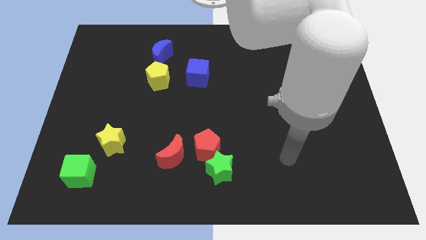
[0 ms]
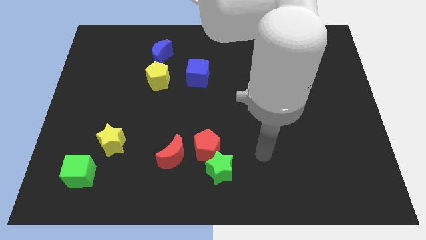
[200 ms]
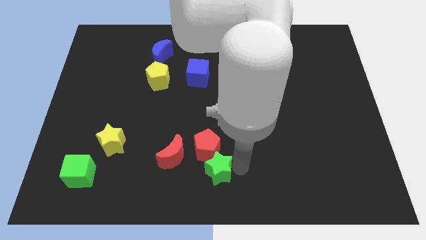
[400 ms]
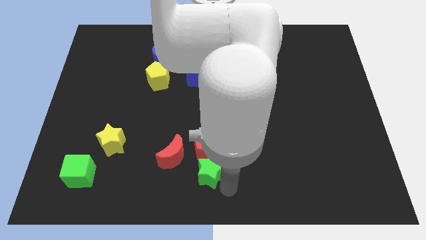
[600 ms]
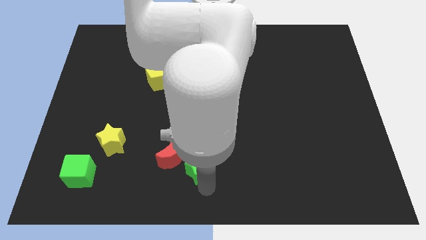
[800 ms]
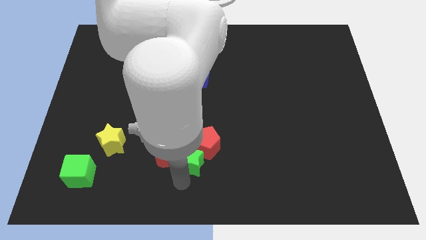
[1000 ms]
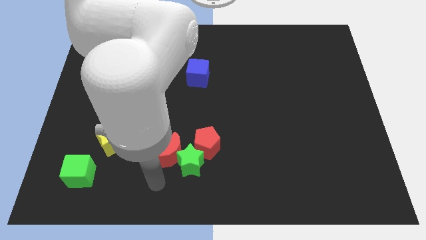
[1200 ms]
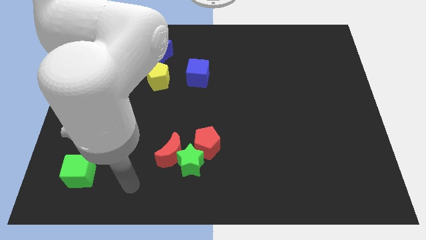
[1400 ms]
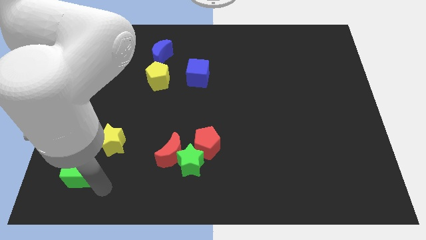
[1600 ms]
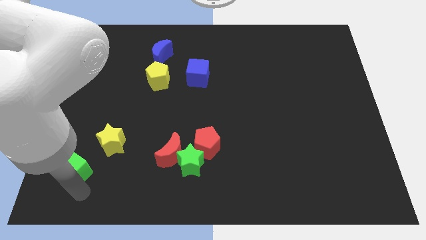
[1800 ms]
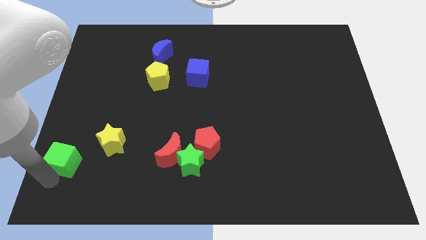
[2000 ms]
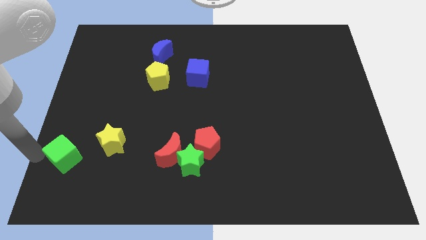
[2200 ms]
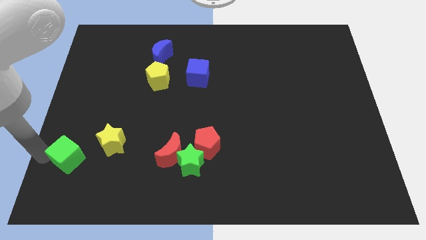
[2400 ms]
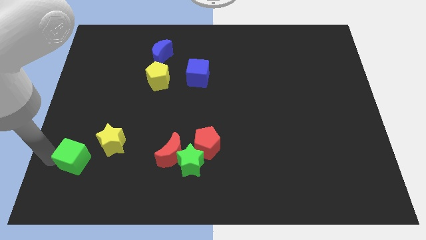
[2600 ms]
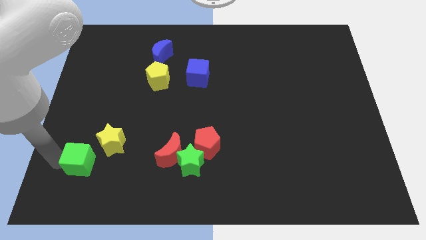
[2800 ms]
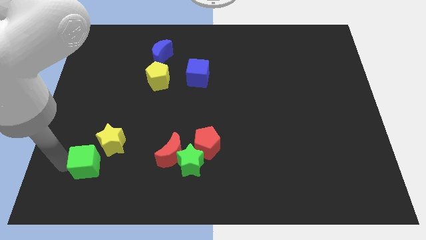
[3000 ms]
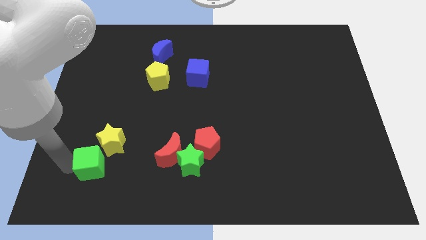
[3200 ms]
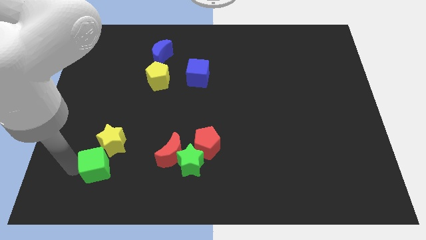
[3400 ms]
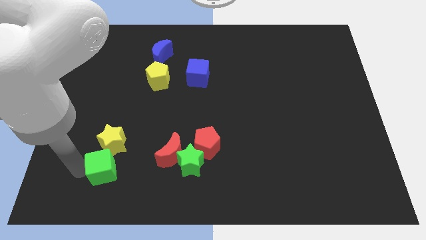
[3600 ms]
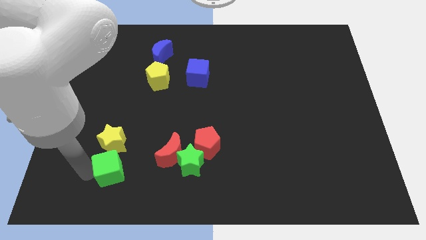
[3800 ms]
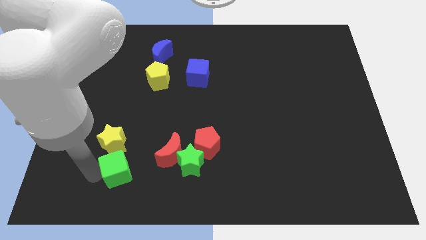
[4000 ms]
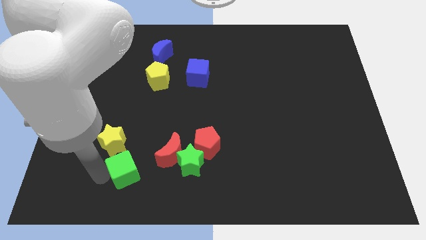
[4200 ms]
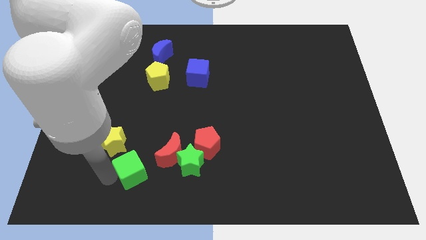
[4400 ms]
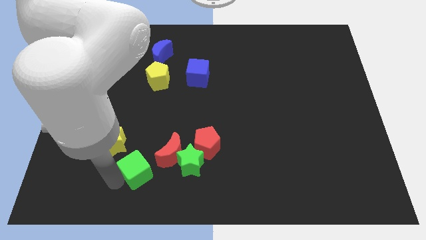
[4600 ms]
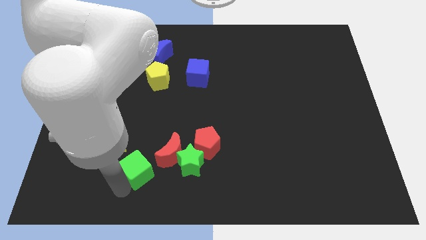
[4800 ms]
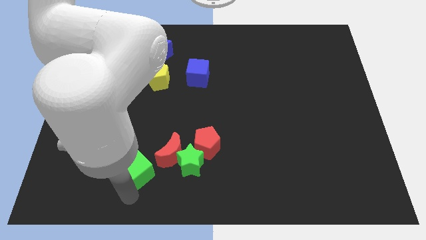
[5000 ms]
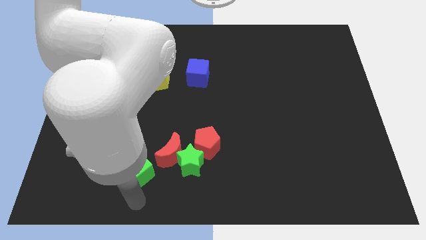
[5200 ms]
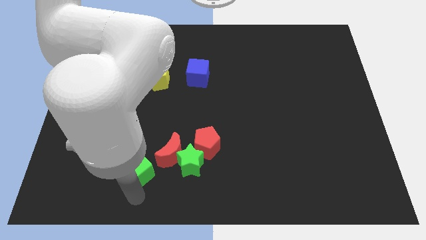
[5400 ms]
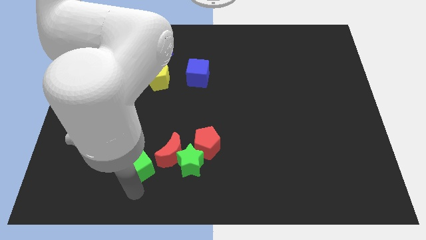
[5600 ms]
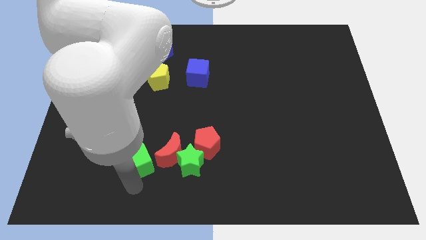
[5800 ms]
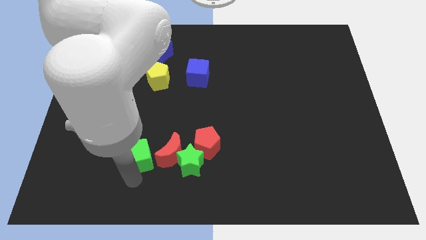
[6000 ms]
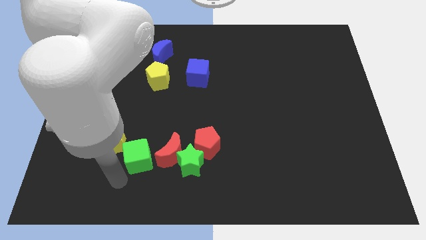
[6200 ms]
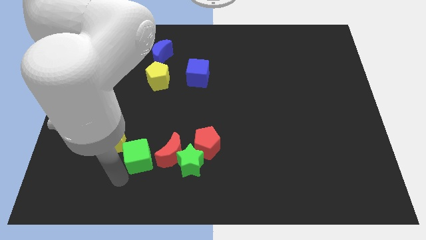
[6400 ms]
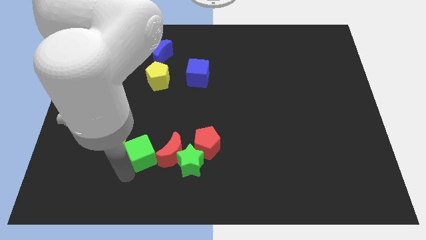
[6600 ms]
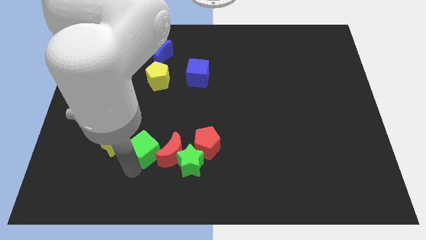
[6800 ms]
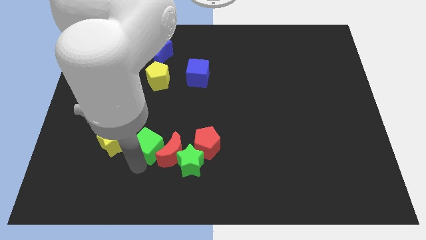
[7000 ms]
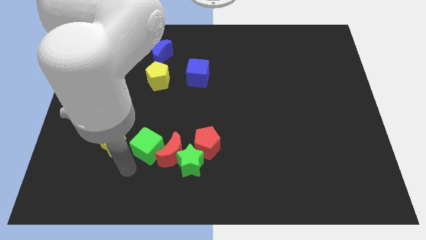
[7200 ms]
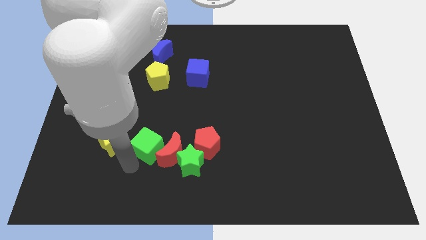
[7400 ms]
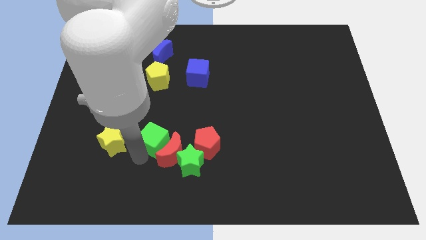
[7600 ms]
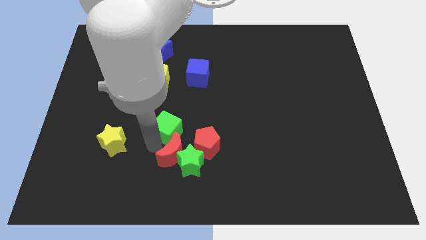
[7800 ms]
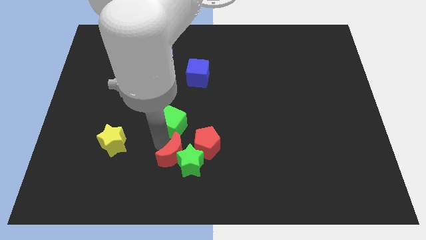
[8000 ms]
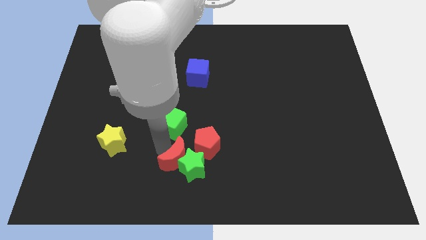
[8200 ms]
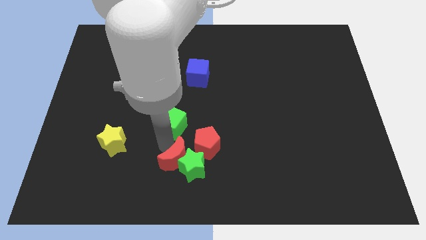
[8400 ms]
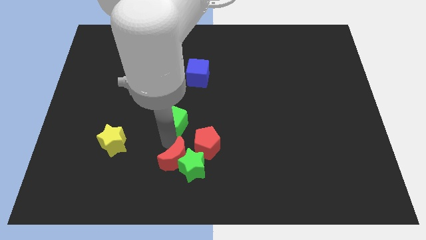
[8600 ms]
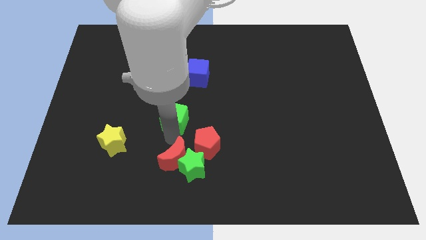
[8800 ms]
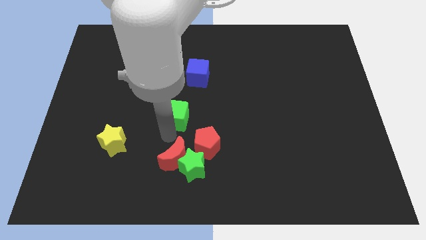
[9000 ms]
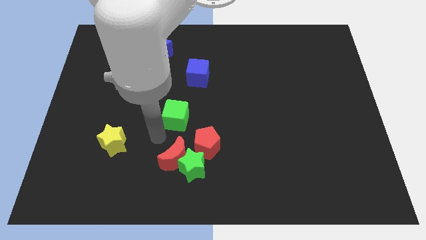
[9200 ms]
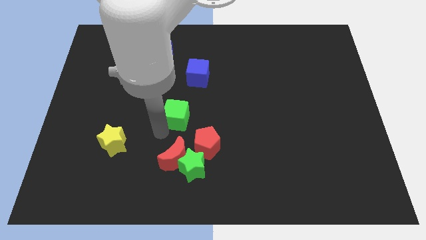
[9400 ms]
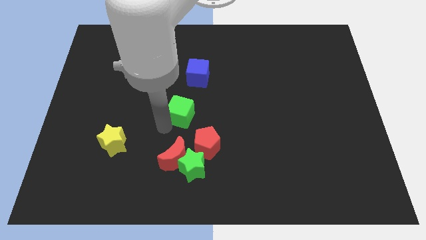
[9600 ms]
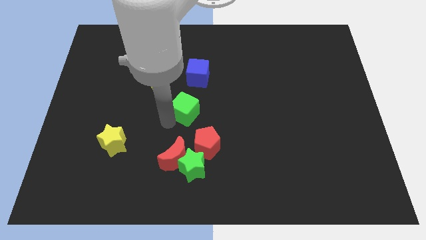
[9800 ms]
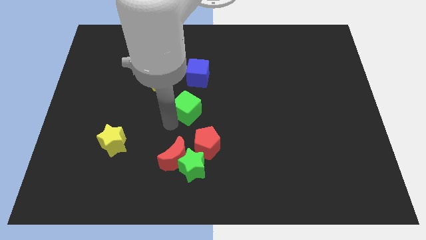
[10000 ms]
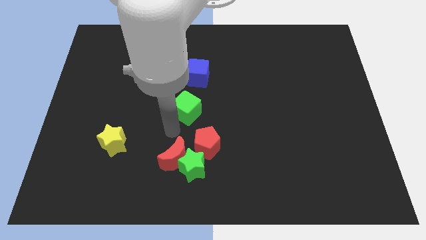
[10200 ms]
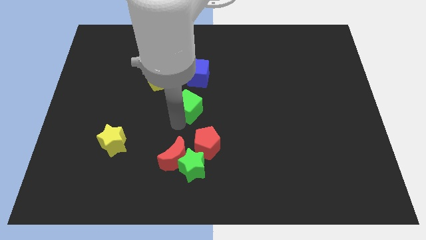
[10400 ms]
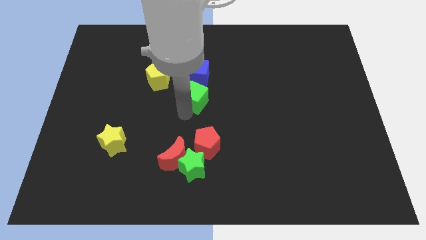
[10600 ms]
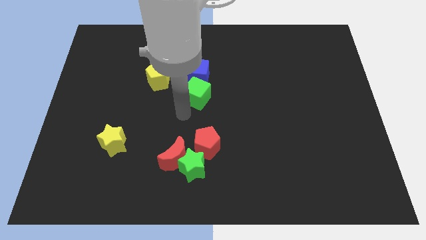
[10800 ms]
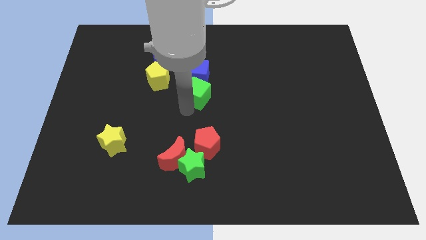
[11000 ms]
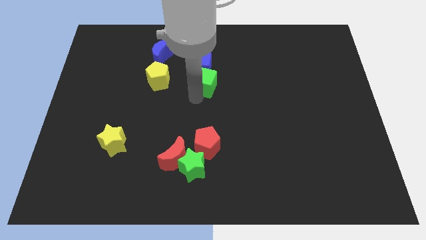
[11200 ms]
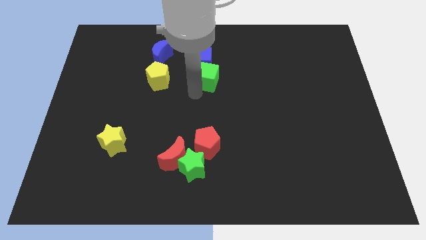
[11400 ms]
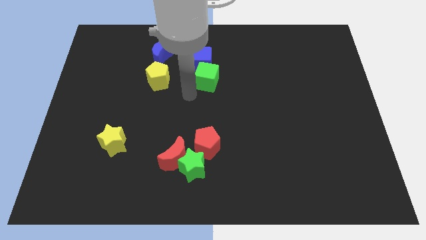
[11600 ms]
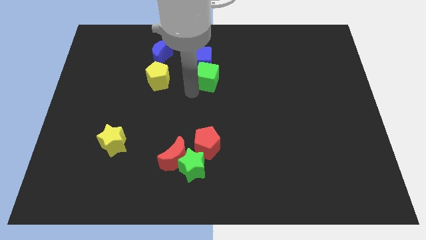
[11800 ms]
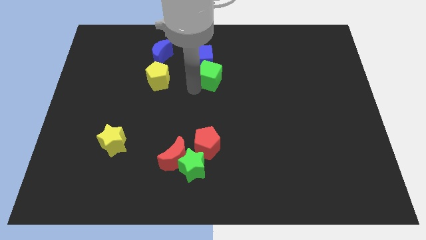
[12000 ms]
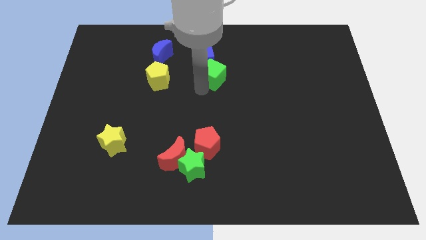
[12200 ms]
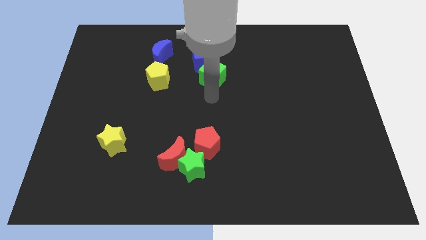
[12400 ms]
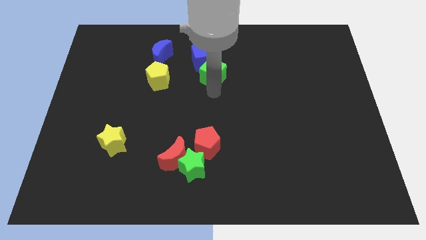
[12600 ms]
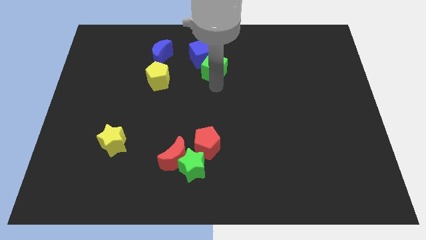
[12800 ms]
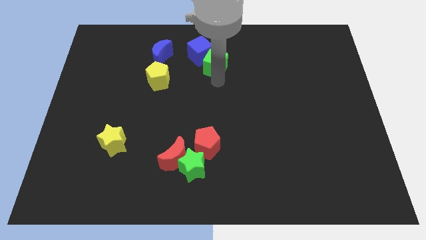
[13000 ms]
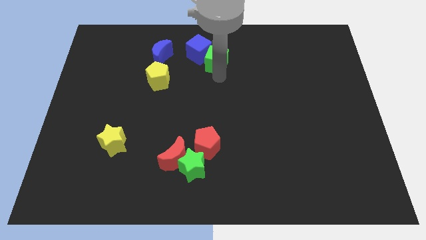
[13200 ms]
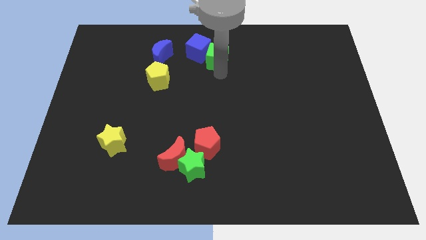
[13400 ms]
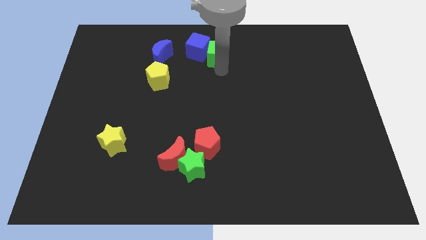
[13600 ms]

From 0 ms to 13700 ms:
push the green cube to the top
